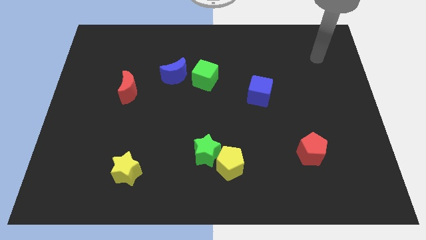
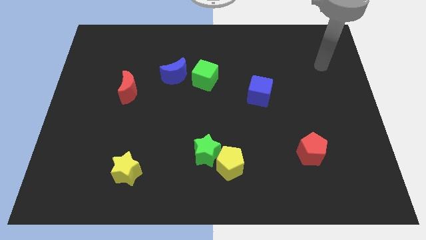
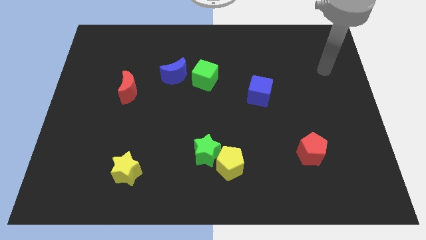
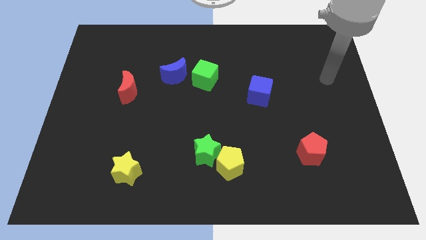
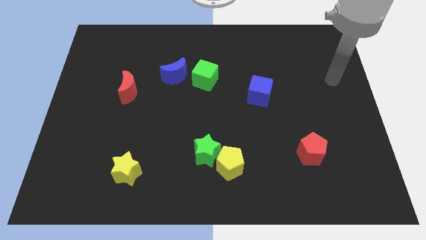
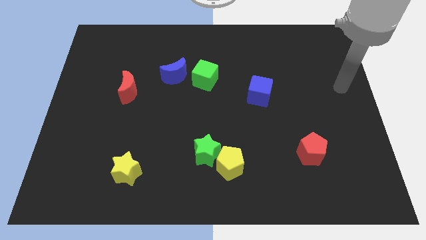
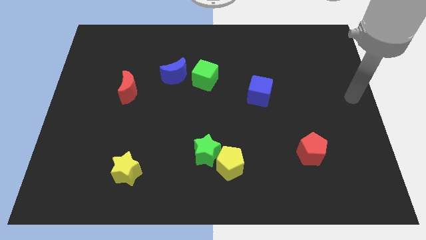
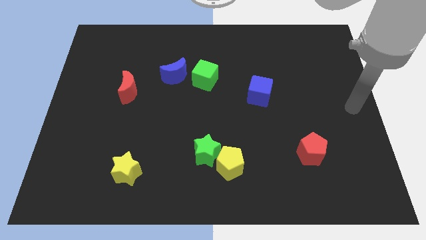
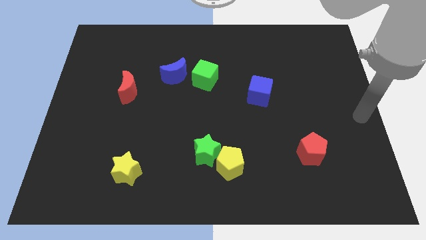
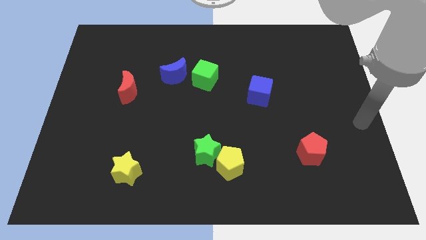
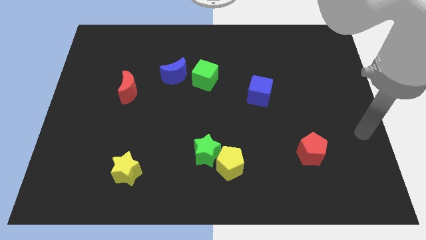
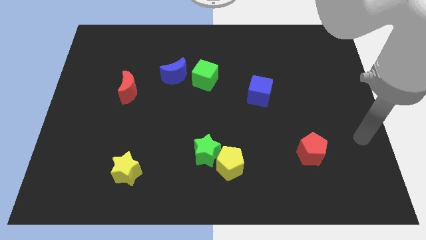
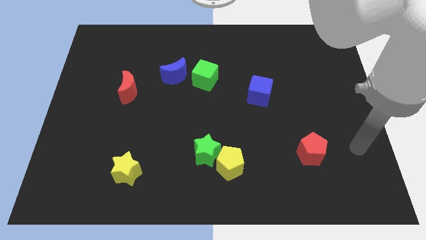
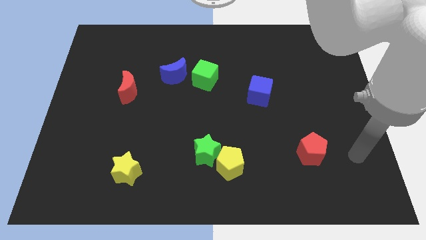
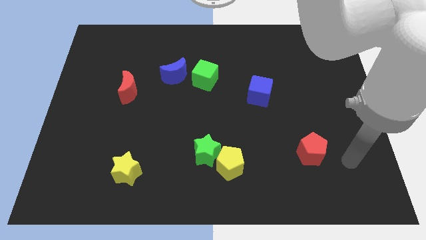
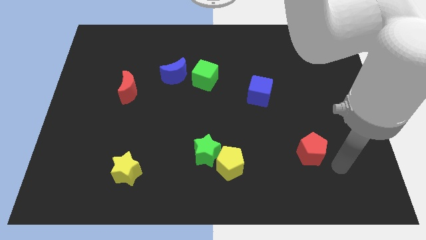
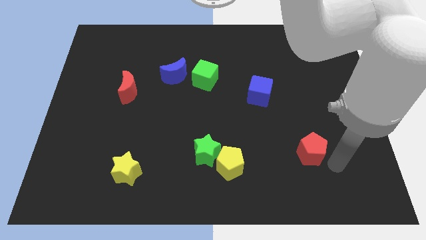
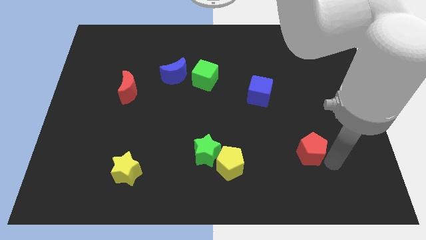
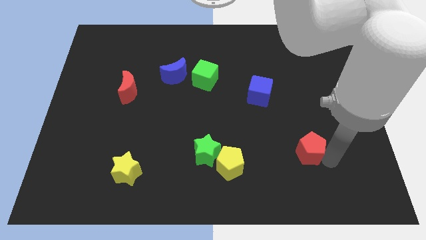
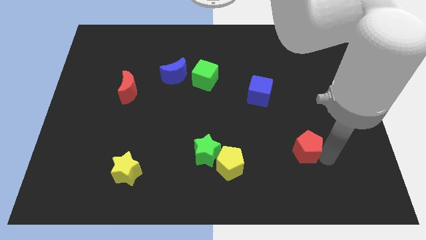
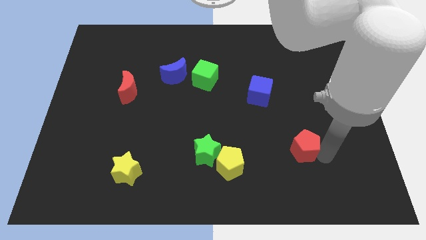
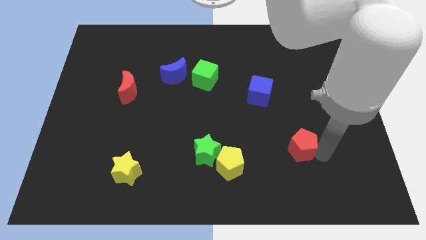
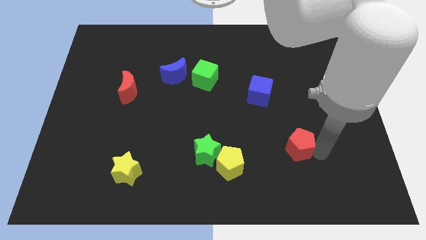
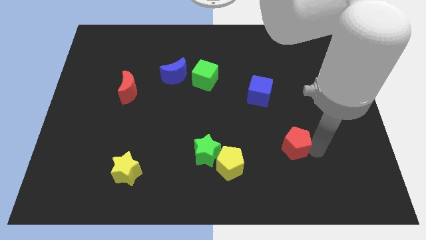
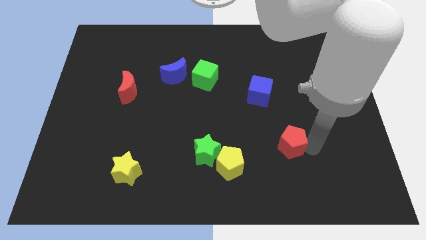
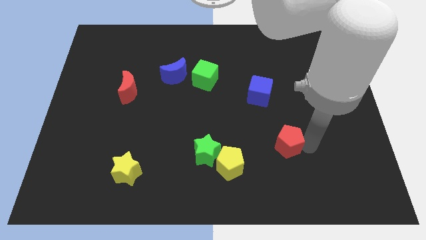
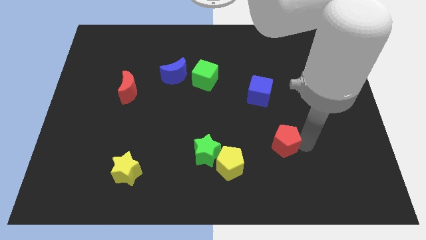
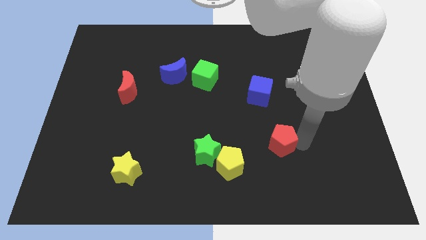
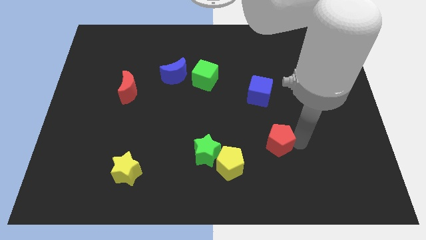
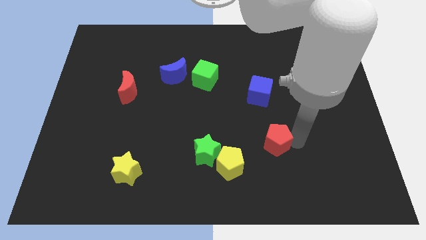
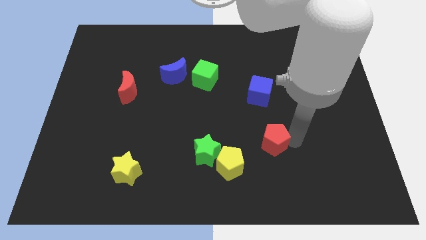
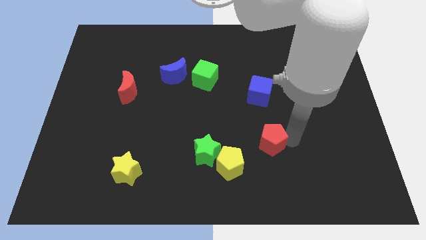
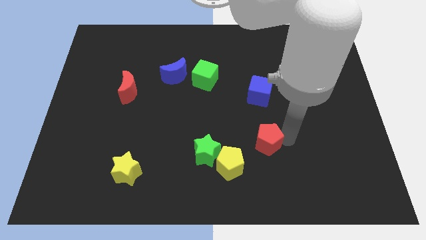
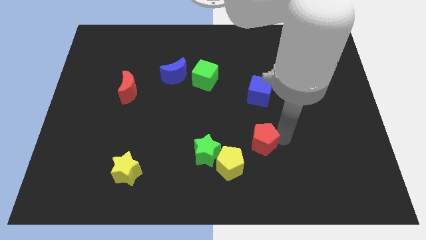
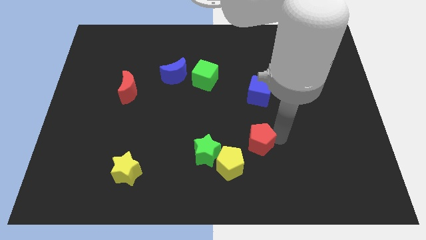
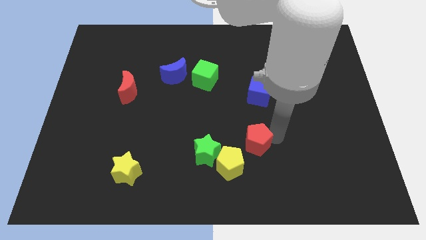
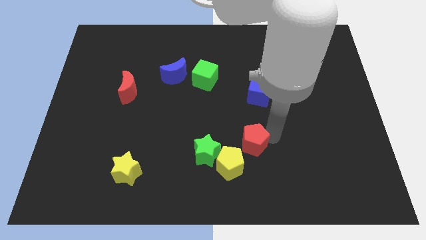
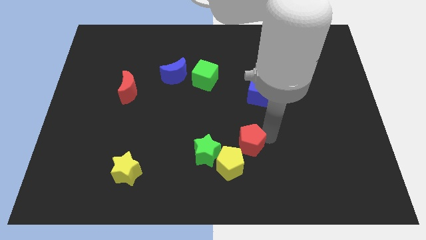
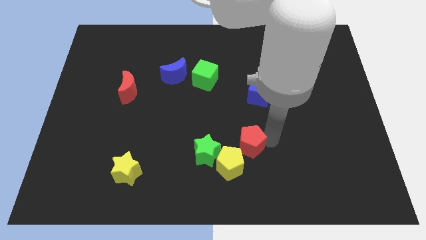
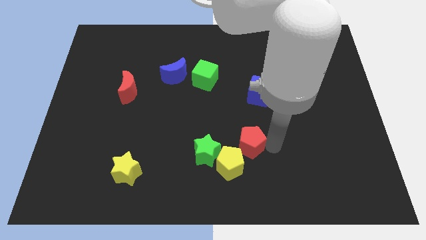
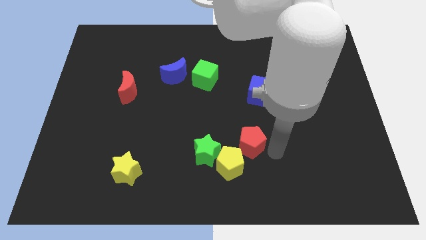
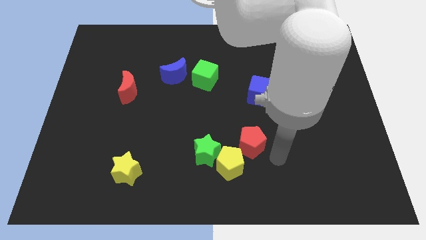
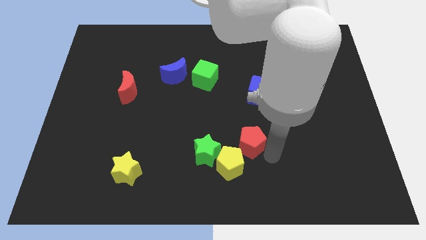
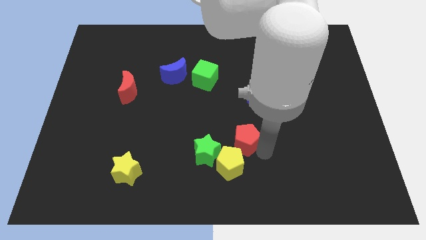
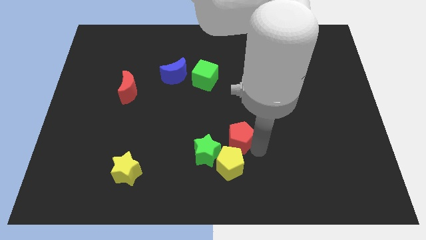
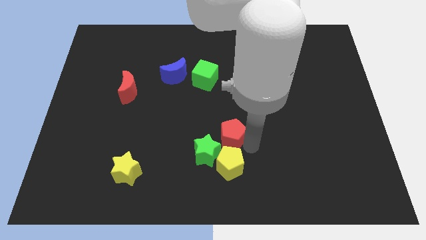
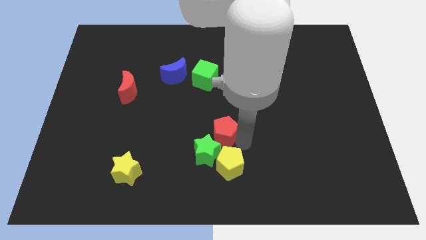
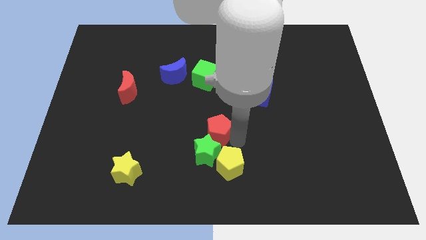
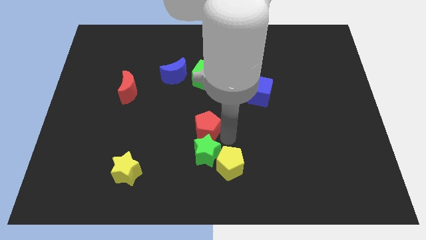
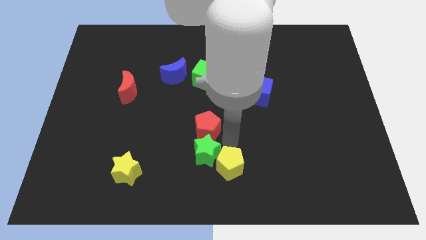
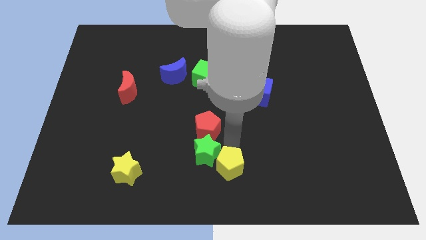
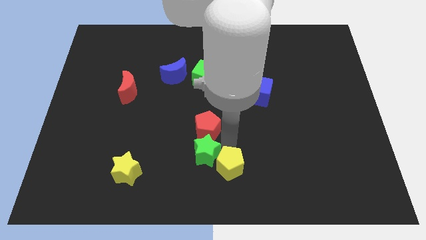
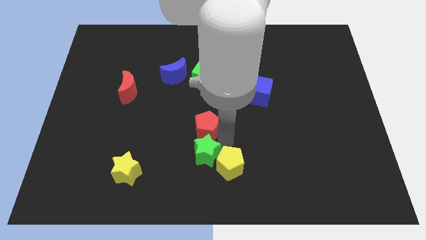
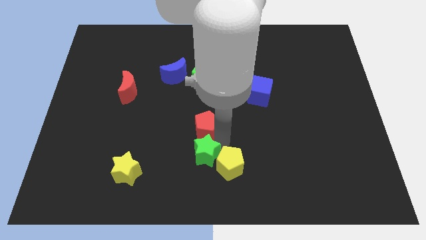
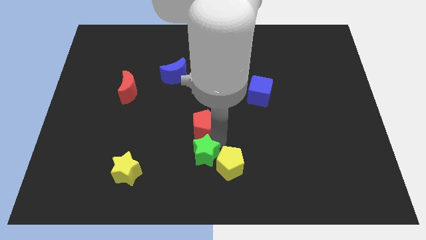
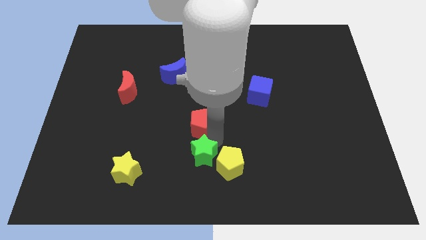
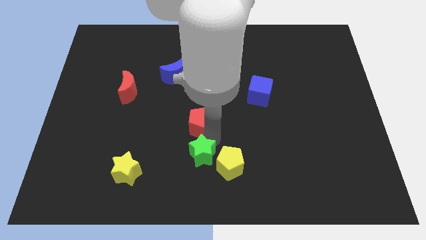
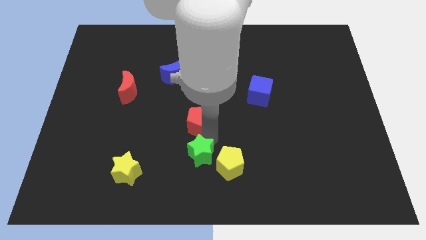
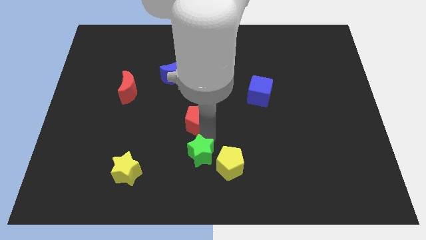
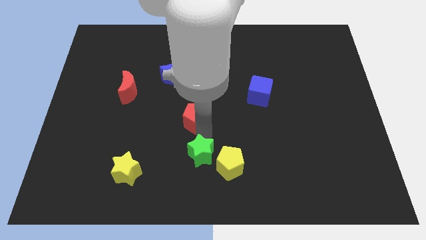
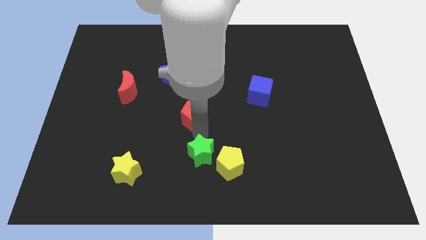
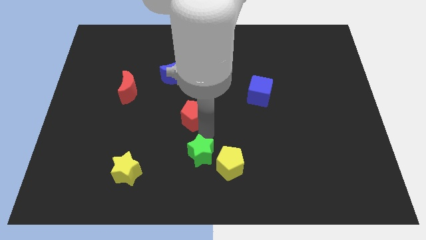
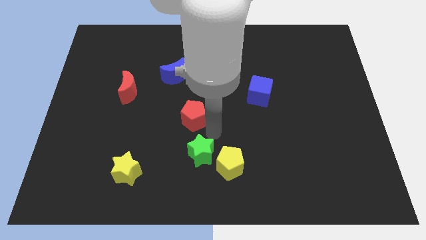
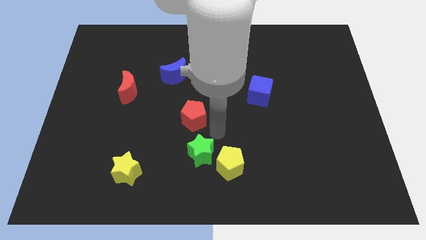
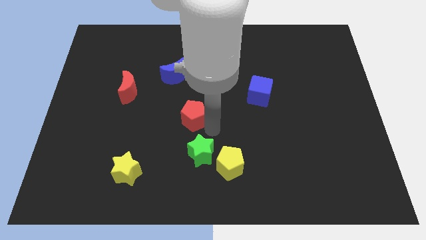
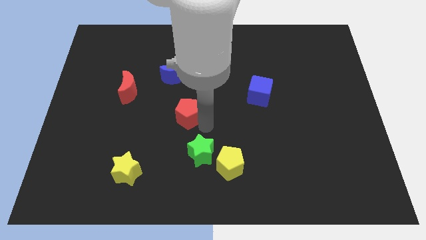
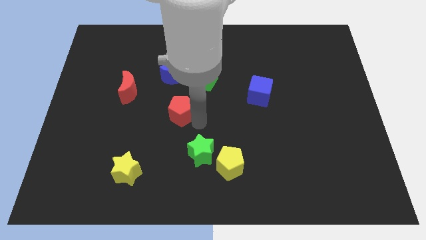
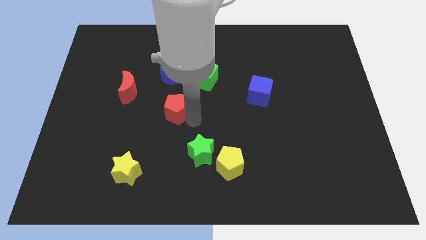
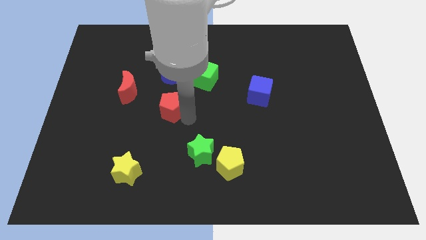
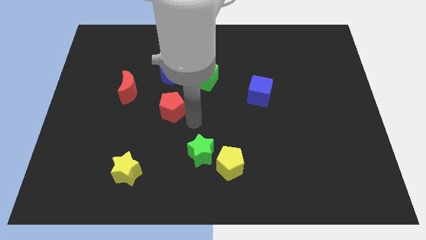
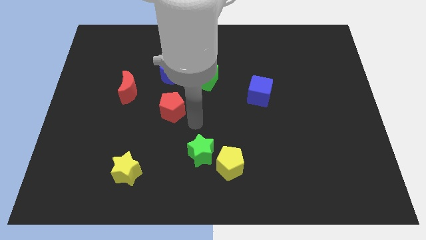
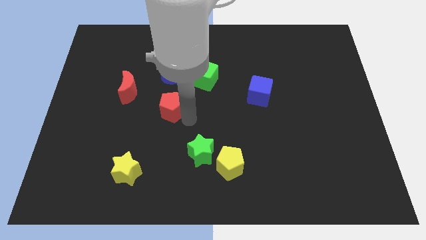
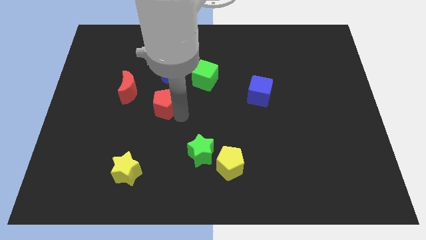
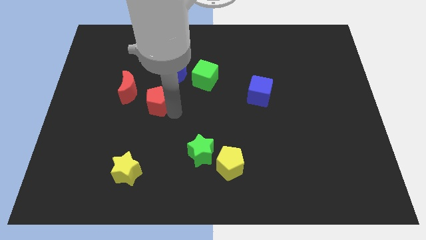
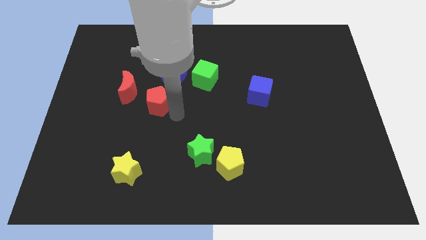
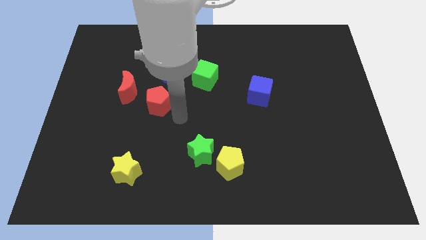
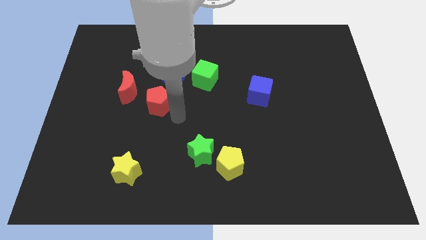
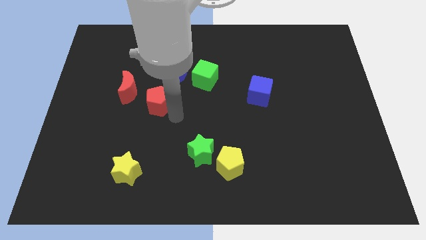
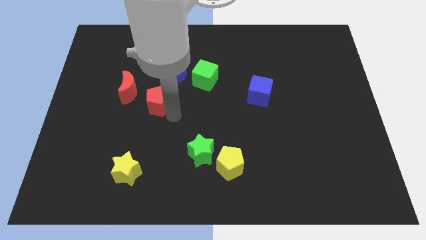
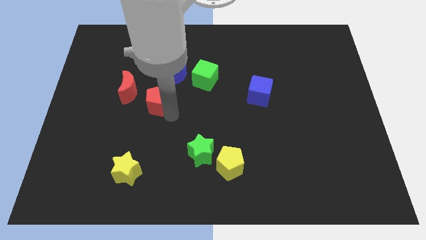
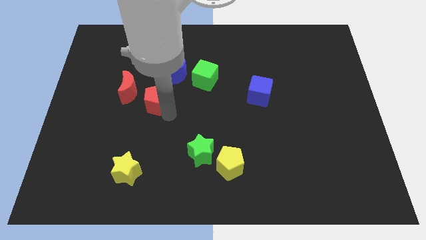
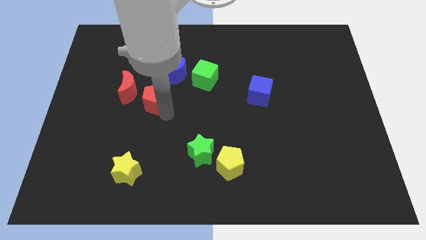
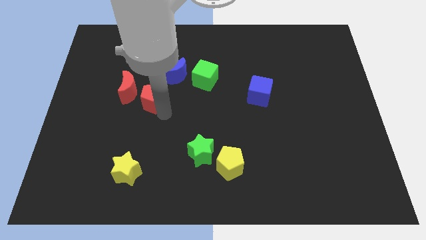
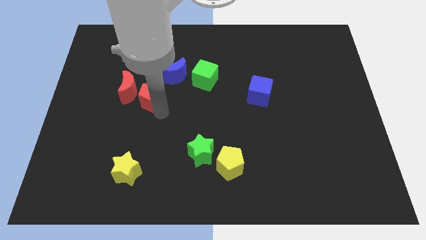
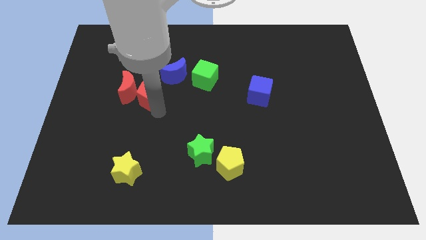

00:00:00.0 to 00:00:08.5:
slide the red pentagon to the red moon
